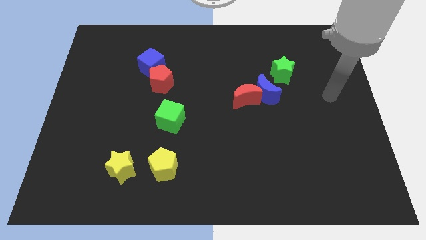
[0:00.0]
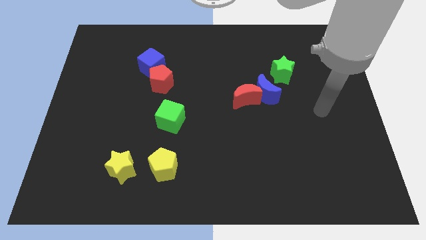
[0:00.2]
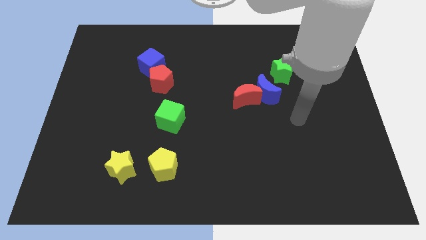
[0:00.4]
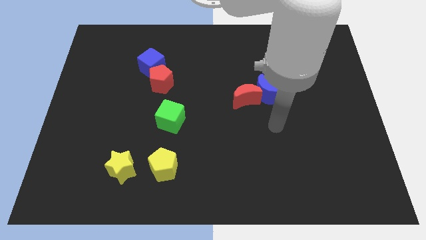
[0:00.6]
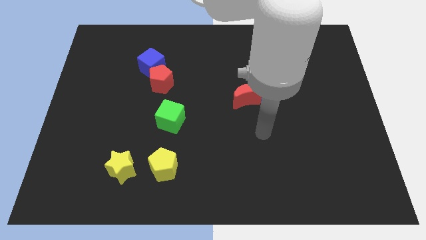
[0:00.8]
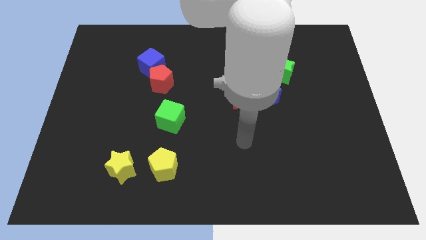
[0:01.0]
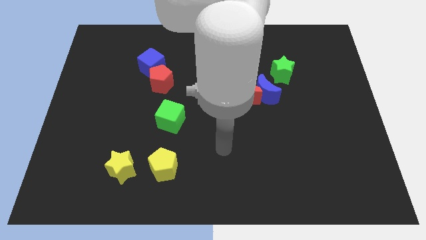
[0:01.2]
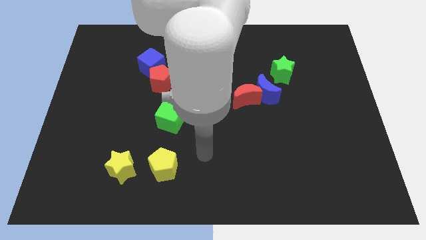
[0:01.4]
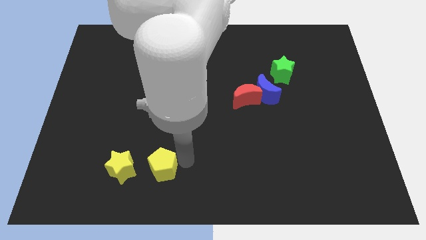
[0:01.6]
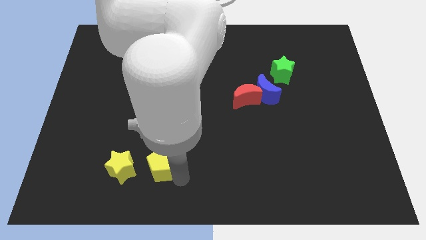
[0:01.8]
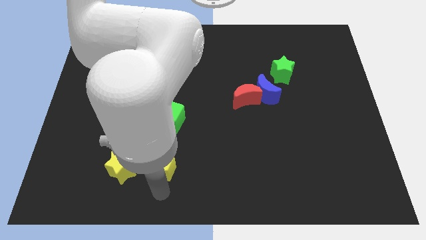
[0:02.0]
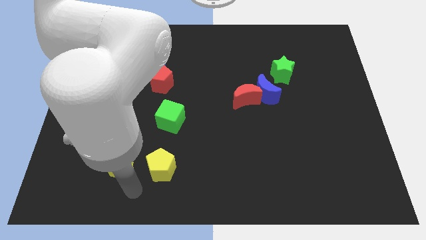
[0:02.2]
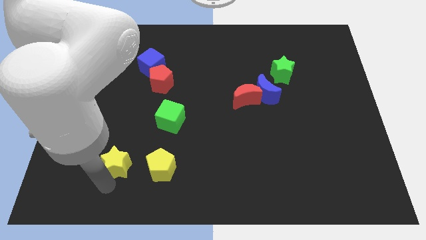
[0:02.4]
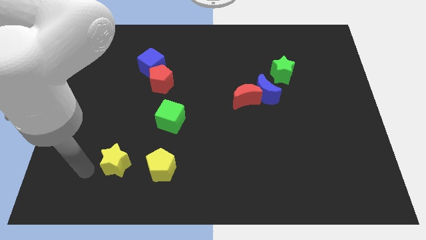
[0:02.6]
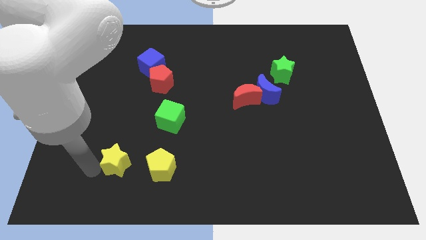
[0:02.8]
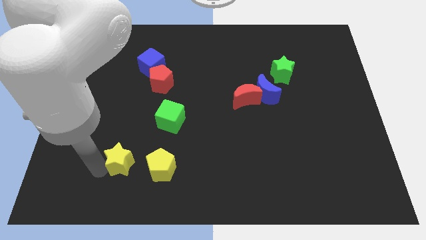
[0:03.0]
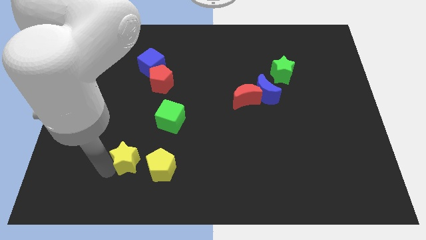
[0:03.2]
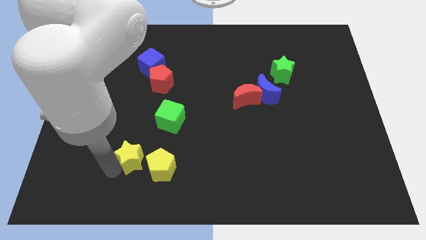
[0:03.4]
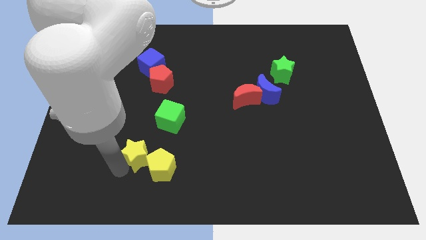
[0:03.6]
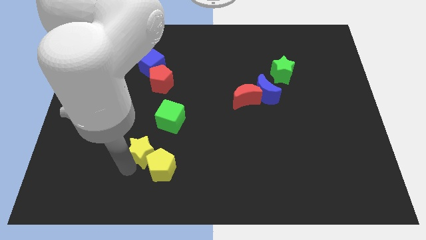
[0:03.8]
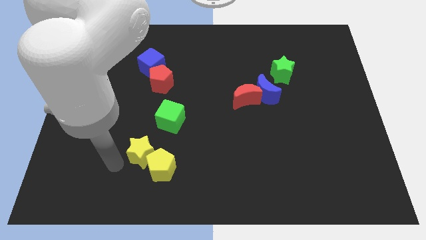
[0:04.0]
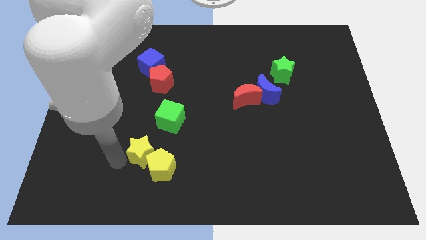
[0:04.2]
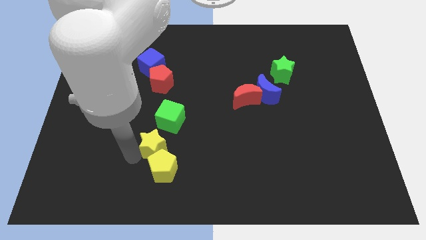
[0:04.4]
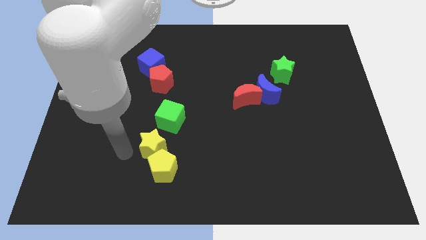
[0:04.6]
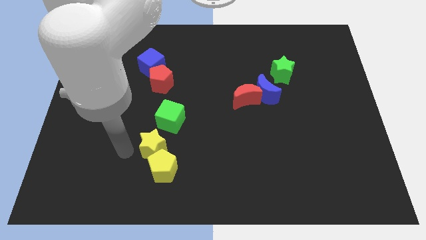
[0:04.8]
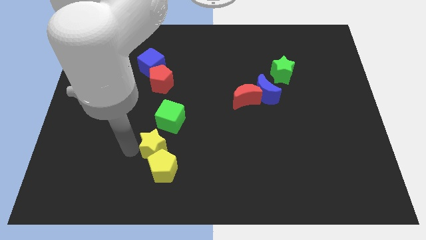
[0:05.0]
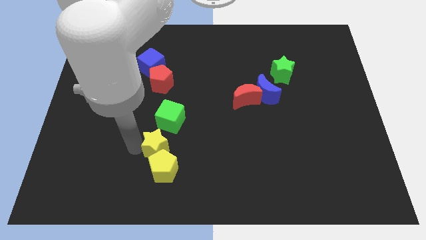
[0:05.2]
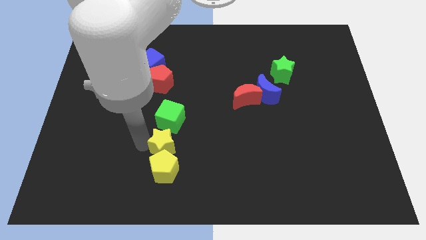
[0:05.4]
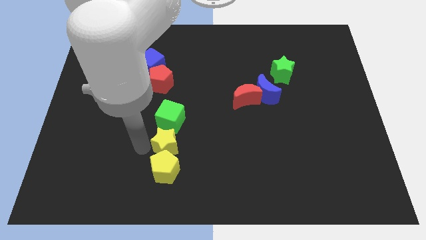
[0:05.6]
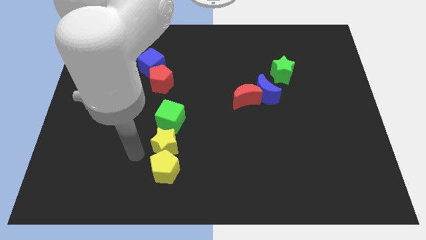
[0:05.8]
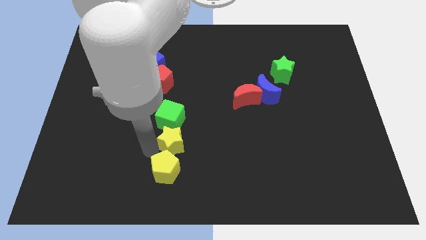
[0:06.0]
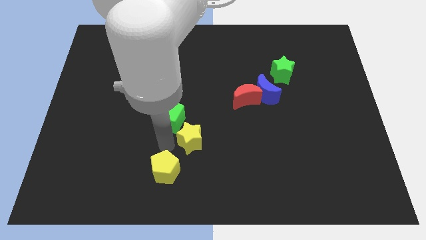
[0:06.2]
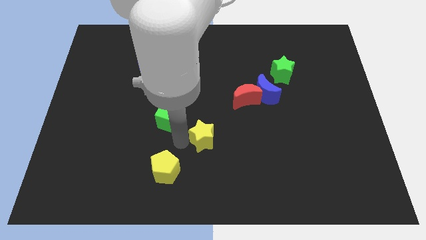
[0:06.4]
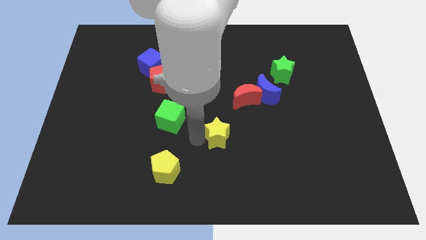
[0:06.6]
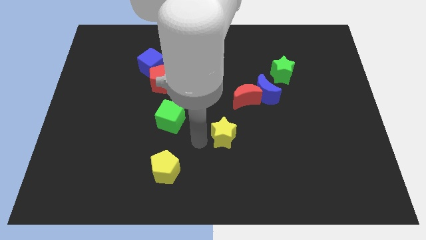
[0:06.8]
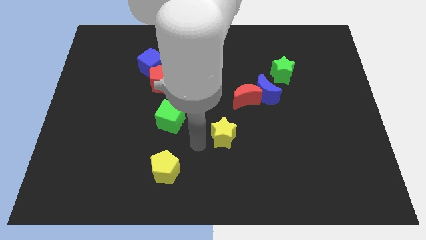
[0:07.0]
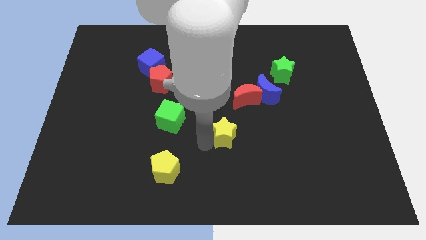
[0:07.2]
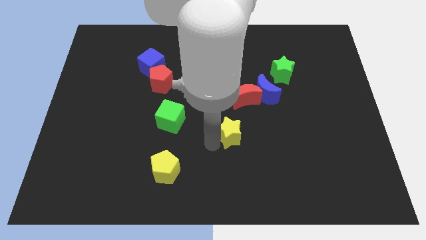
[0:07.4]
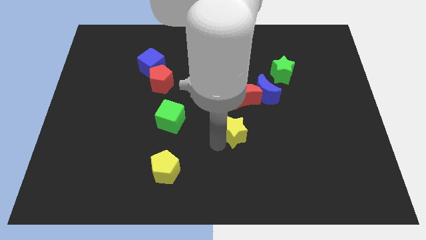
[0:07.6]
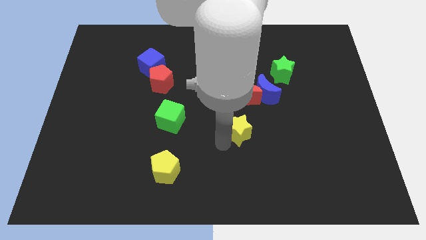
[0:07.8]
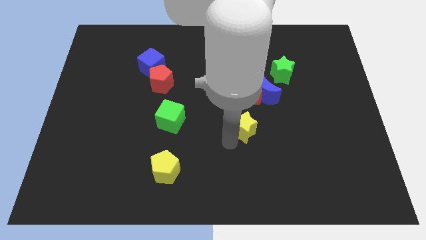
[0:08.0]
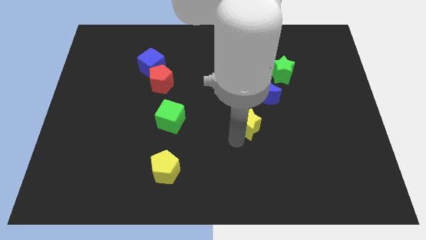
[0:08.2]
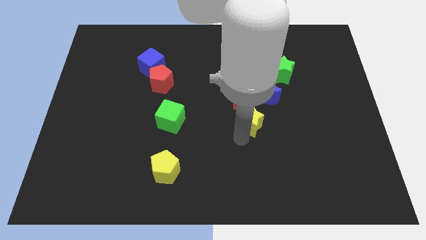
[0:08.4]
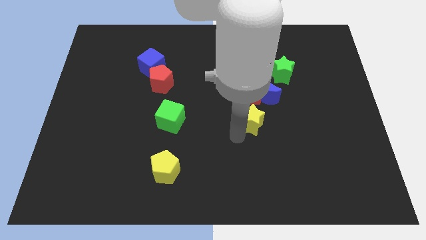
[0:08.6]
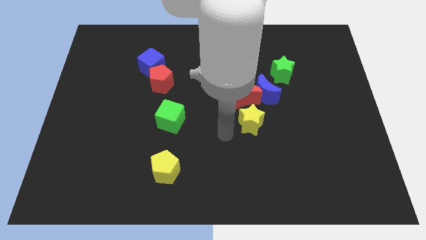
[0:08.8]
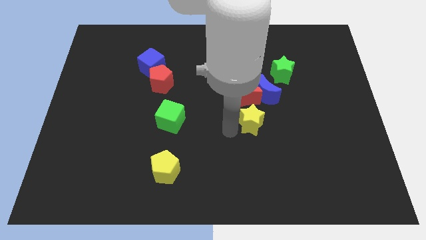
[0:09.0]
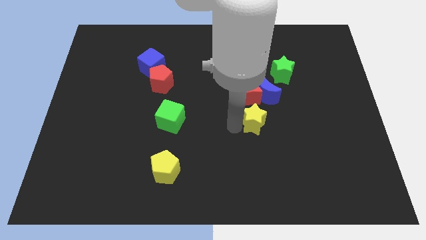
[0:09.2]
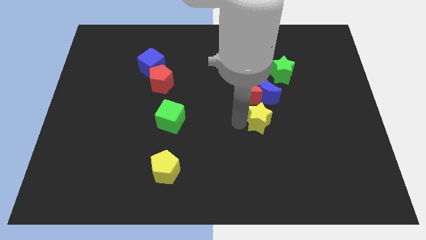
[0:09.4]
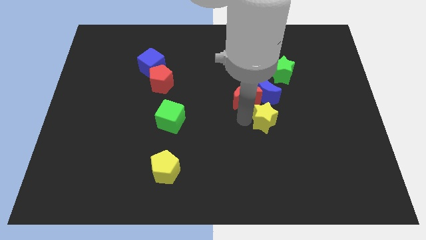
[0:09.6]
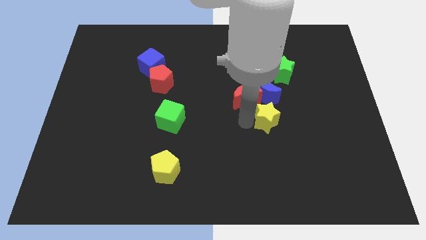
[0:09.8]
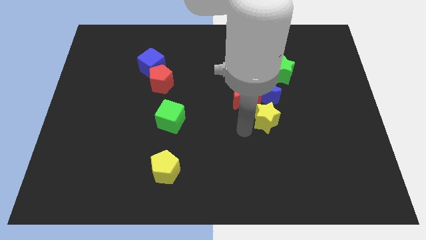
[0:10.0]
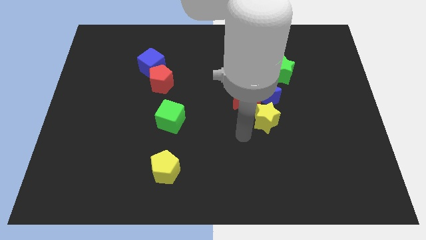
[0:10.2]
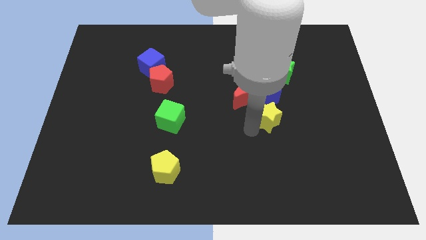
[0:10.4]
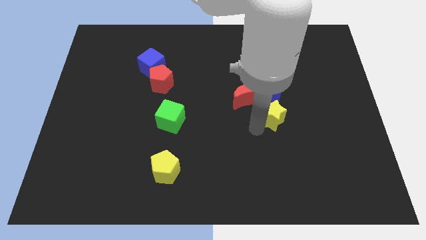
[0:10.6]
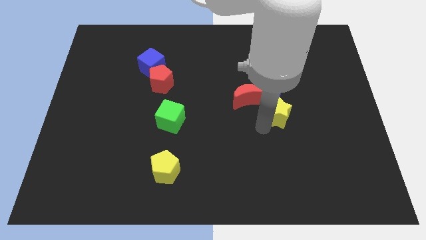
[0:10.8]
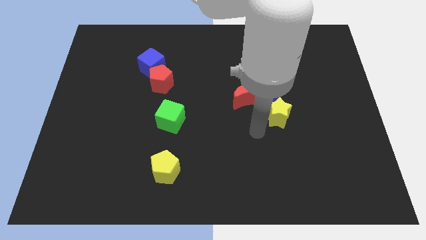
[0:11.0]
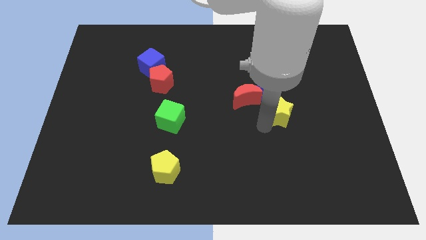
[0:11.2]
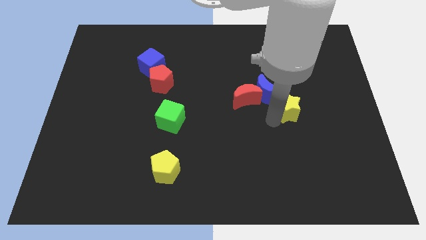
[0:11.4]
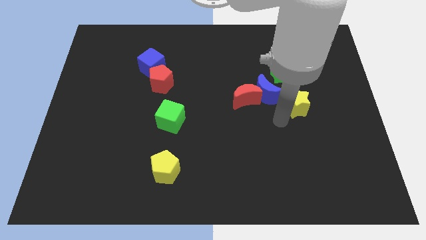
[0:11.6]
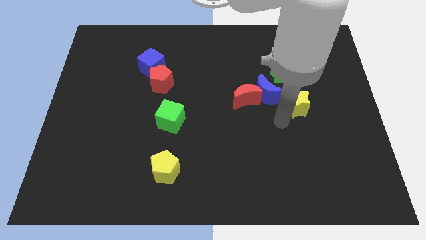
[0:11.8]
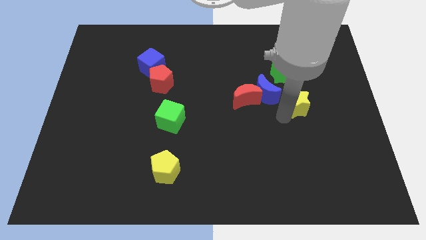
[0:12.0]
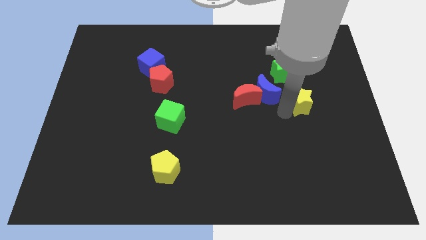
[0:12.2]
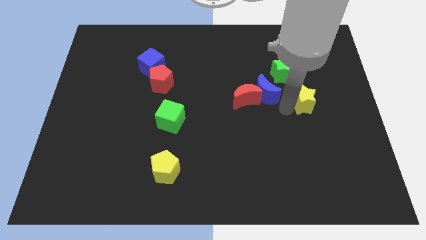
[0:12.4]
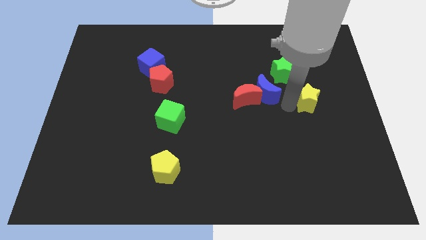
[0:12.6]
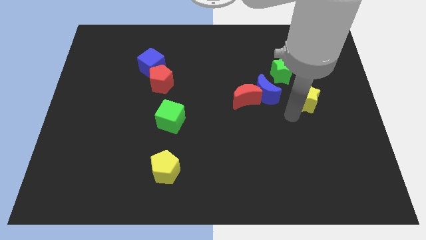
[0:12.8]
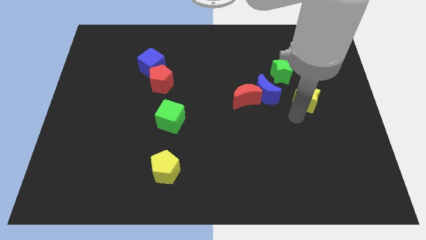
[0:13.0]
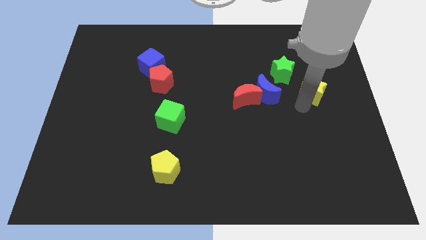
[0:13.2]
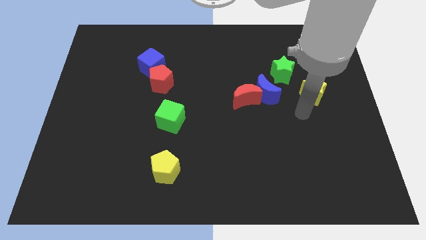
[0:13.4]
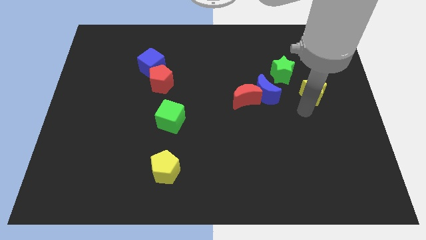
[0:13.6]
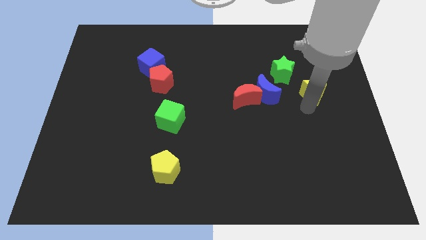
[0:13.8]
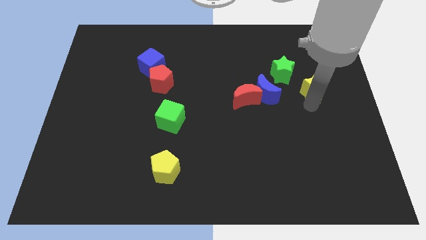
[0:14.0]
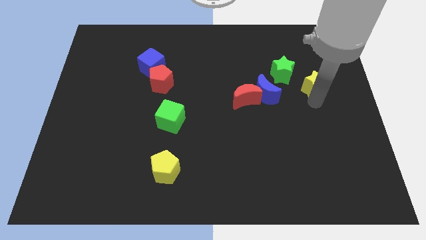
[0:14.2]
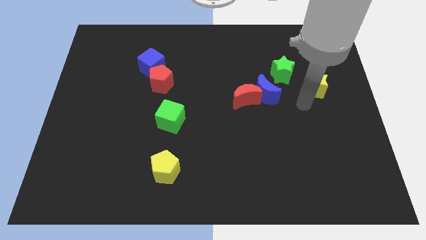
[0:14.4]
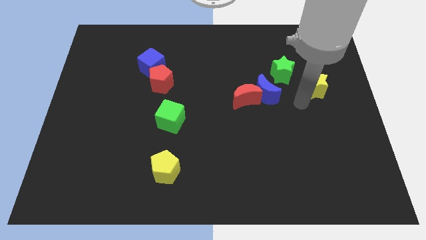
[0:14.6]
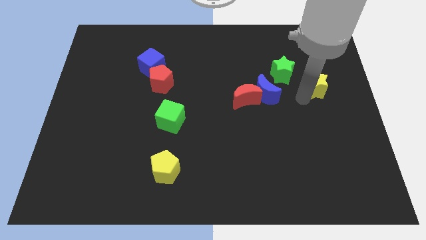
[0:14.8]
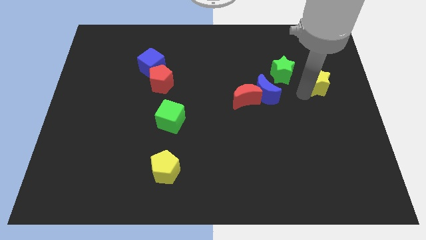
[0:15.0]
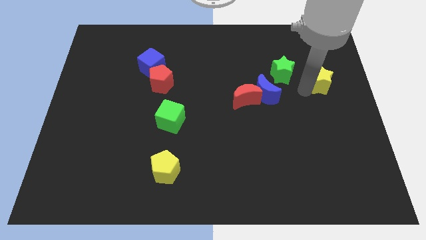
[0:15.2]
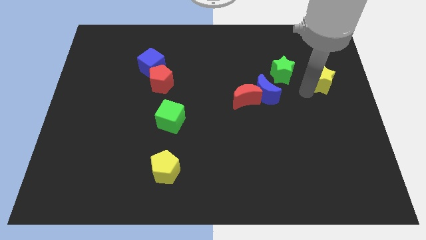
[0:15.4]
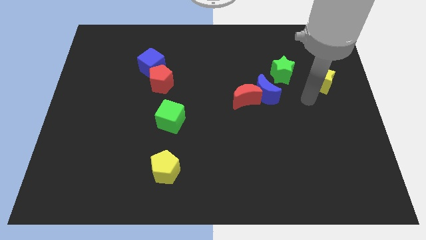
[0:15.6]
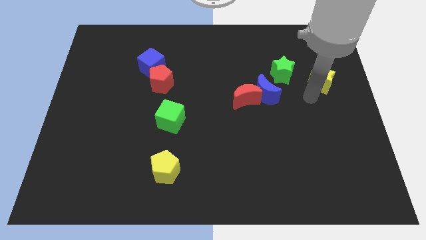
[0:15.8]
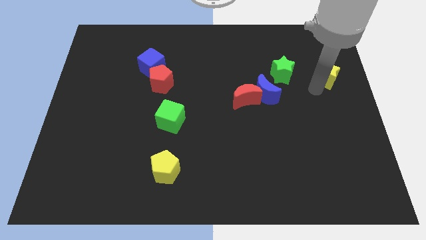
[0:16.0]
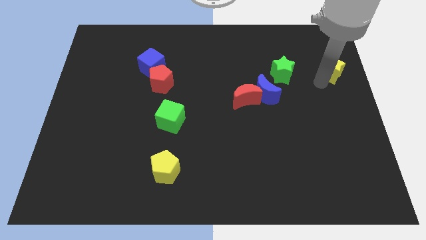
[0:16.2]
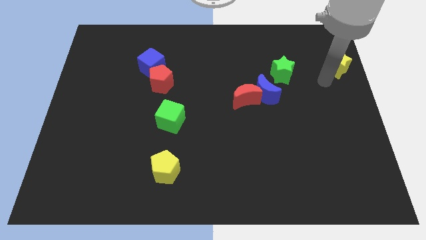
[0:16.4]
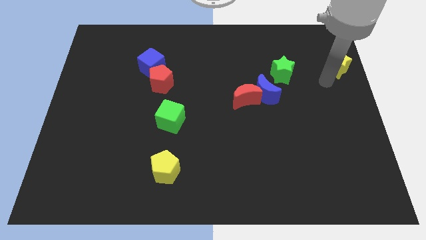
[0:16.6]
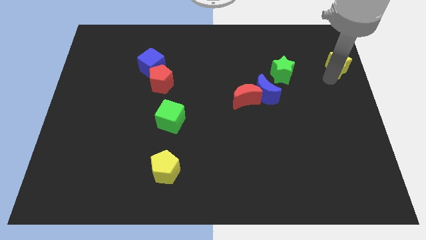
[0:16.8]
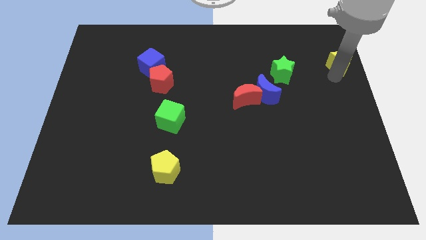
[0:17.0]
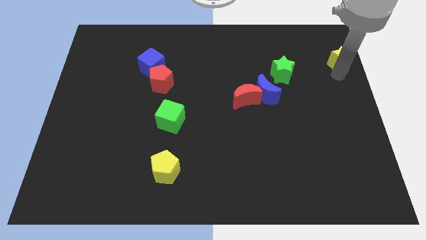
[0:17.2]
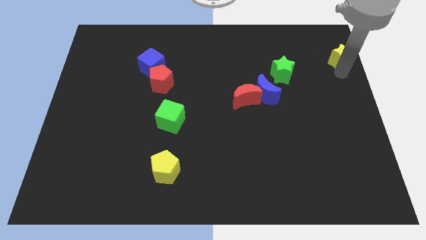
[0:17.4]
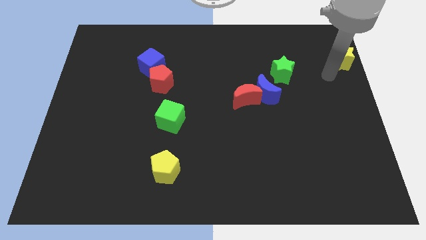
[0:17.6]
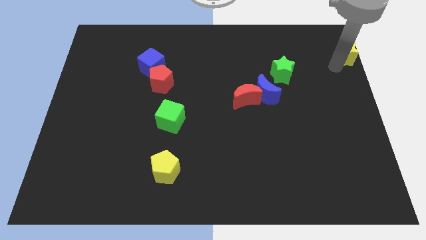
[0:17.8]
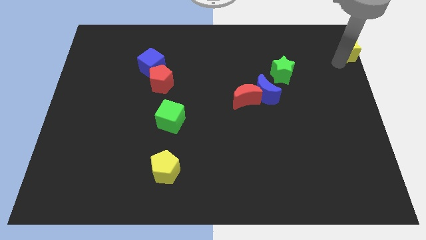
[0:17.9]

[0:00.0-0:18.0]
slide the yellow star to the upper right corner
